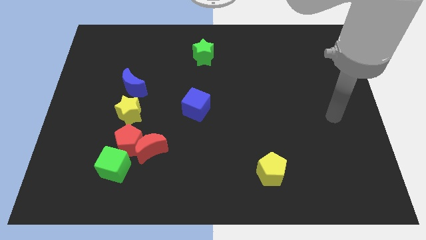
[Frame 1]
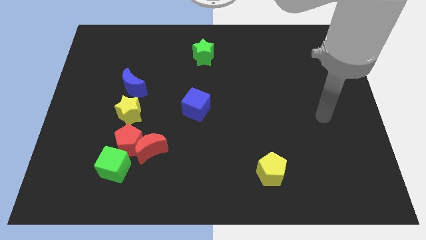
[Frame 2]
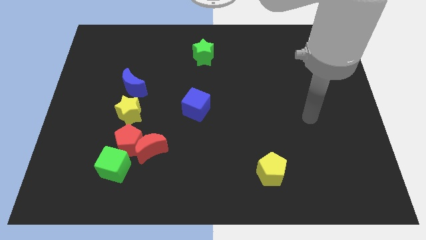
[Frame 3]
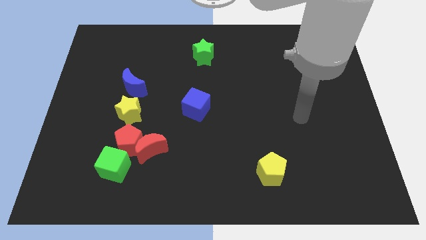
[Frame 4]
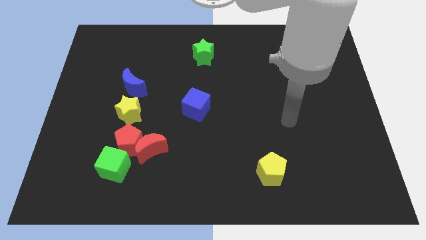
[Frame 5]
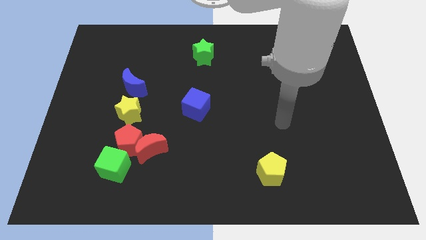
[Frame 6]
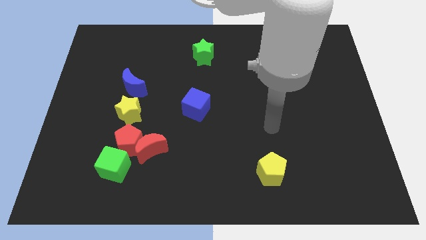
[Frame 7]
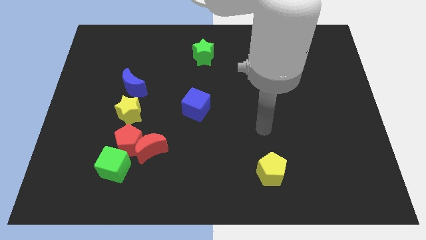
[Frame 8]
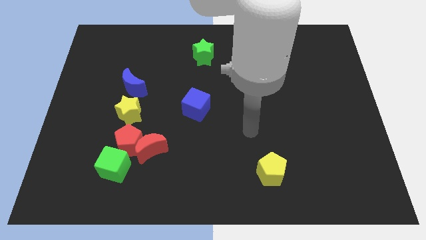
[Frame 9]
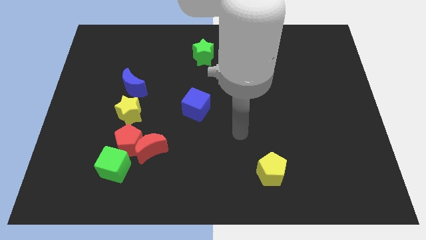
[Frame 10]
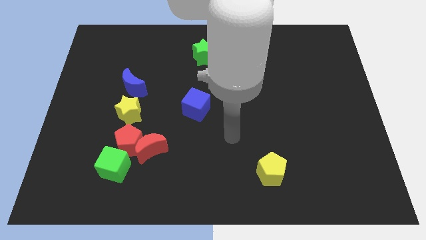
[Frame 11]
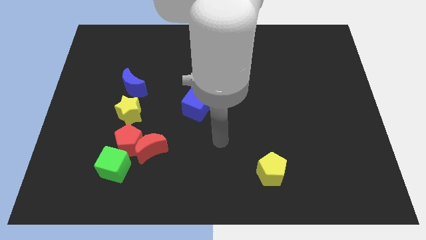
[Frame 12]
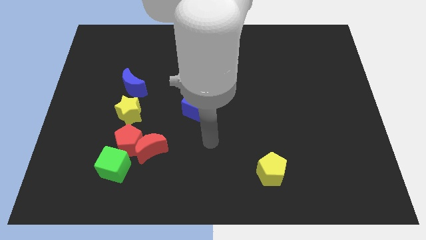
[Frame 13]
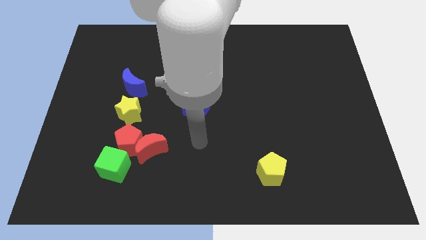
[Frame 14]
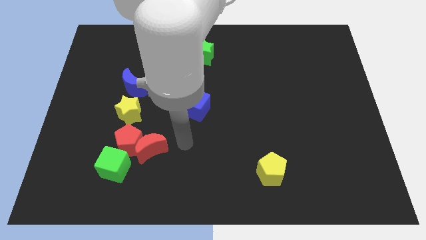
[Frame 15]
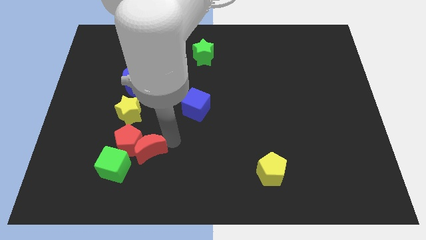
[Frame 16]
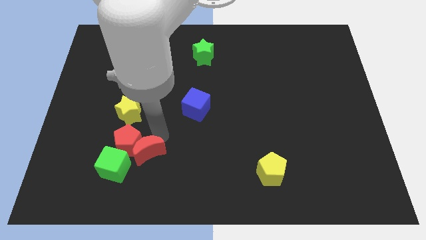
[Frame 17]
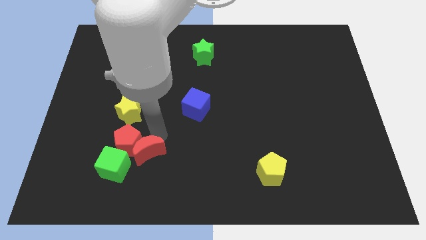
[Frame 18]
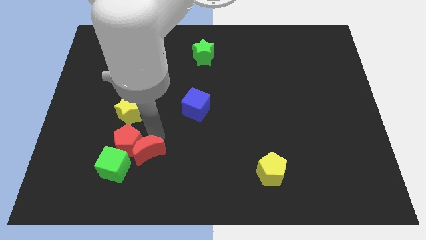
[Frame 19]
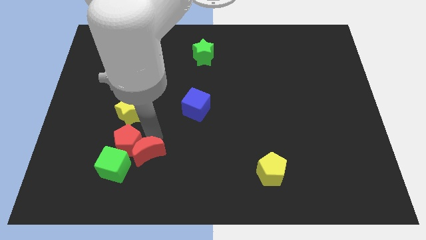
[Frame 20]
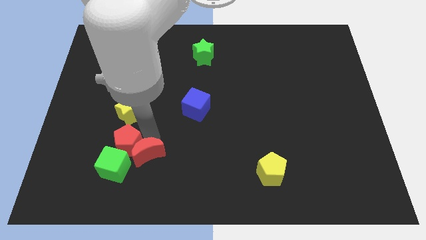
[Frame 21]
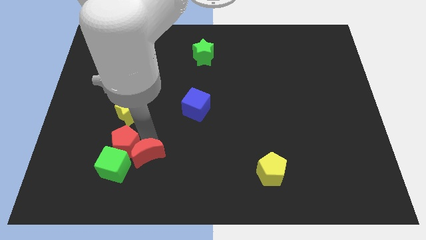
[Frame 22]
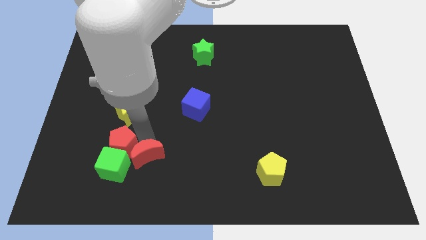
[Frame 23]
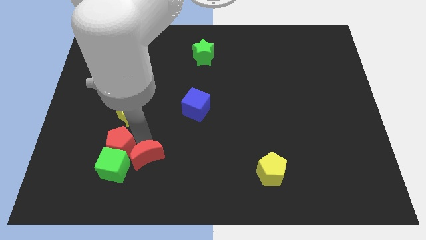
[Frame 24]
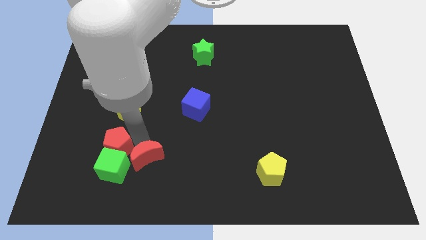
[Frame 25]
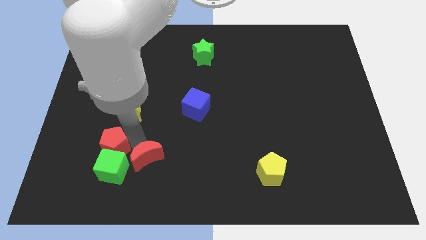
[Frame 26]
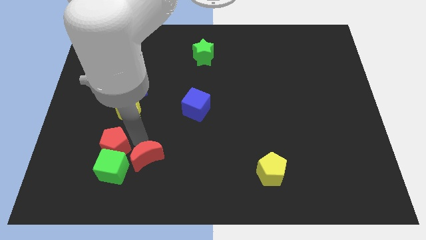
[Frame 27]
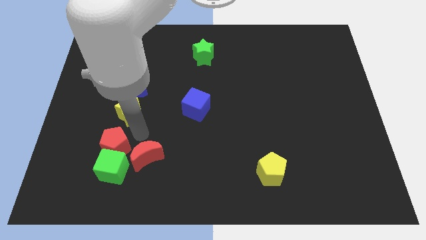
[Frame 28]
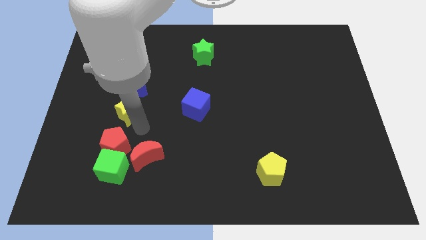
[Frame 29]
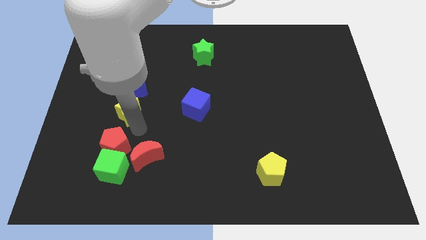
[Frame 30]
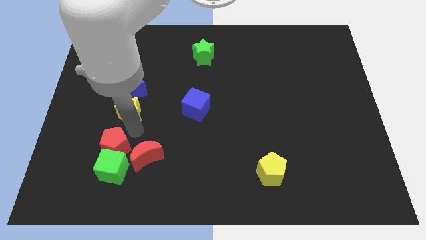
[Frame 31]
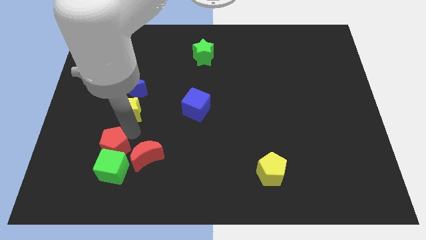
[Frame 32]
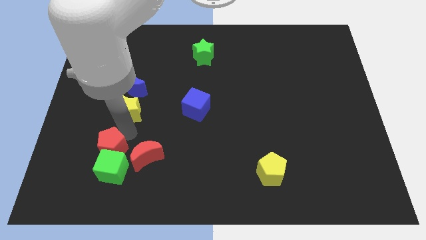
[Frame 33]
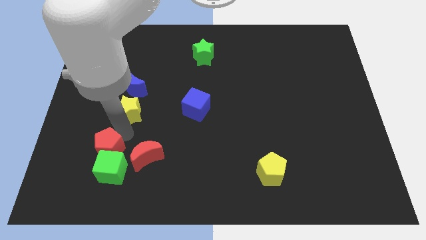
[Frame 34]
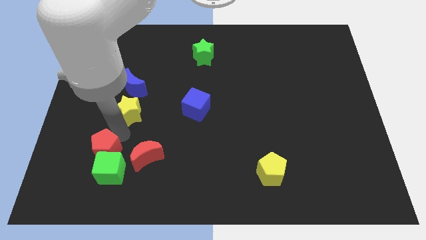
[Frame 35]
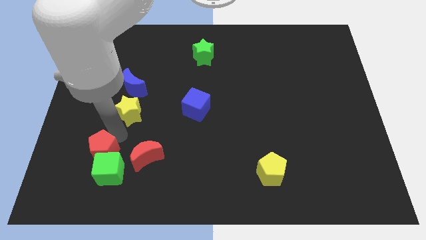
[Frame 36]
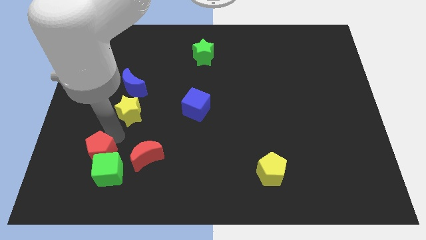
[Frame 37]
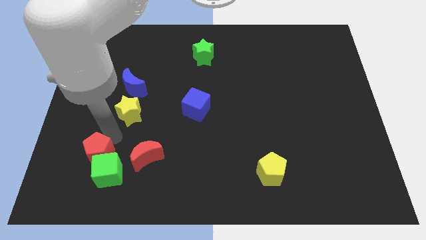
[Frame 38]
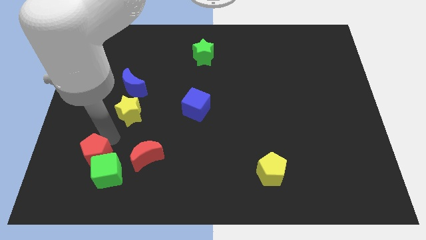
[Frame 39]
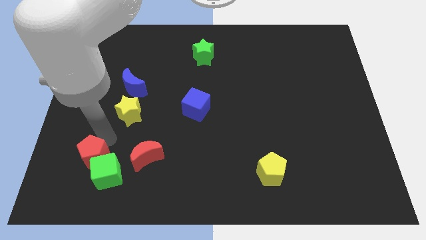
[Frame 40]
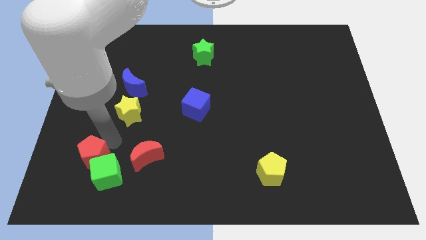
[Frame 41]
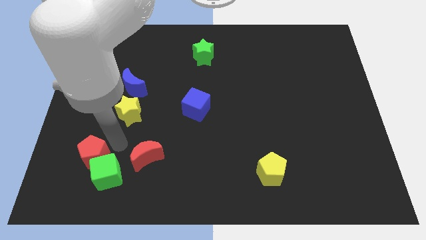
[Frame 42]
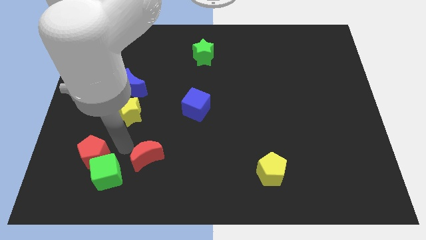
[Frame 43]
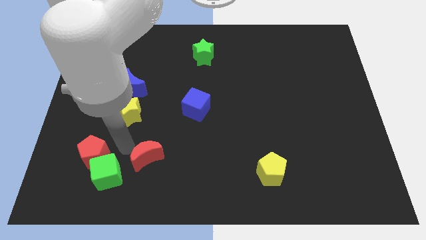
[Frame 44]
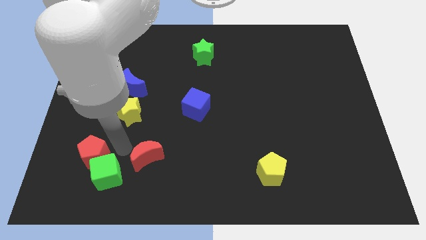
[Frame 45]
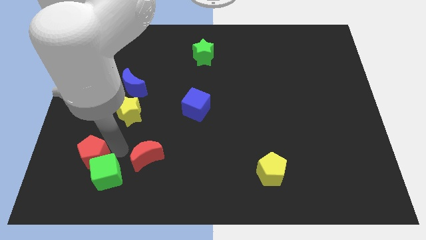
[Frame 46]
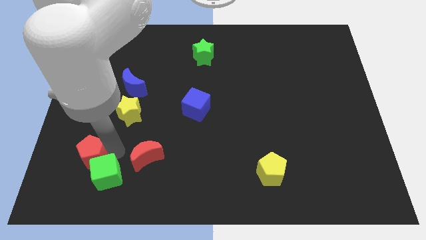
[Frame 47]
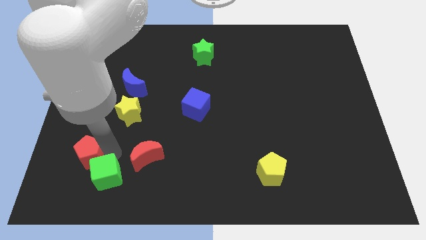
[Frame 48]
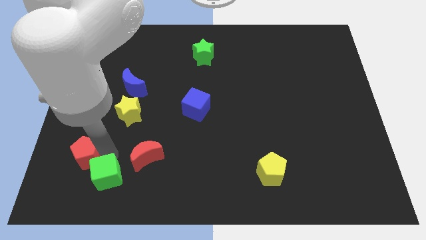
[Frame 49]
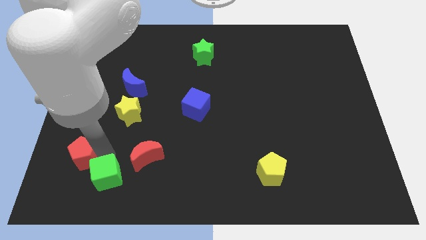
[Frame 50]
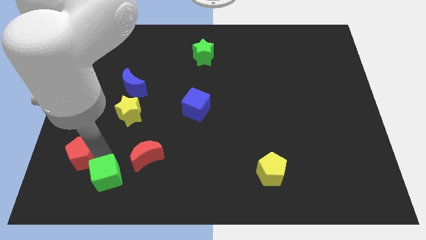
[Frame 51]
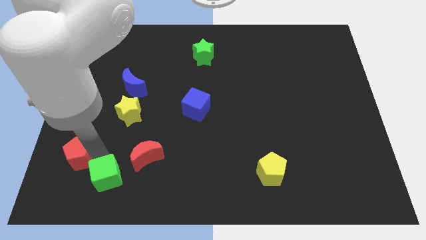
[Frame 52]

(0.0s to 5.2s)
pull the red pentagon apart from the group of blocks

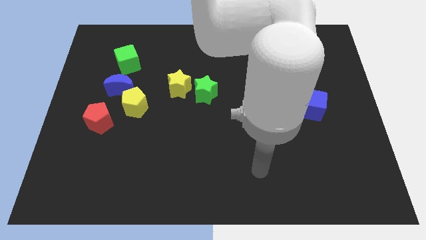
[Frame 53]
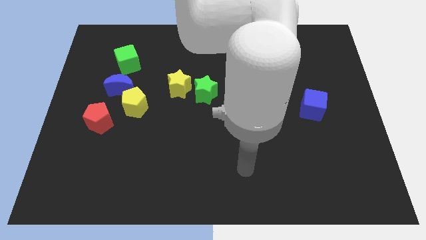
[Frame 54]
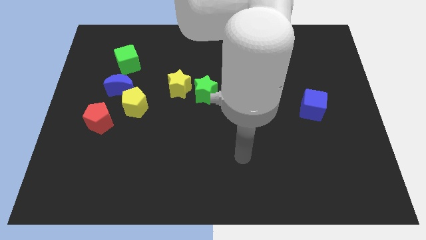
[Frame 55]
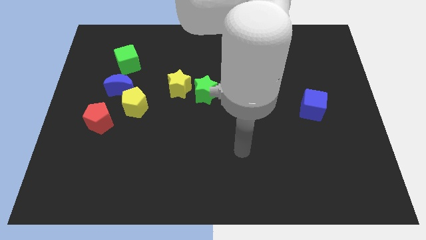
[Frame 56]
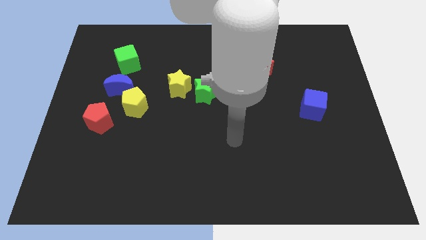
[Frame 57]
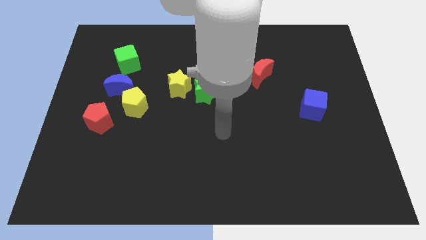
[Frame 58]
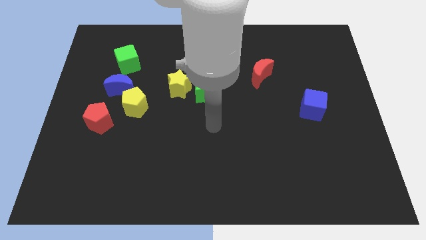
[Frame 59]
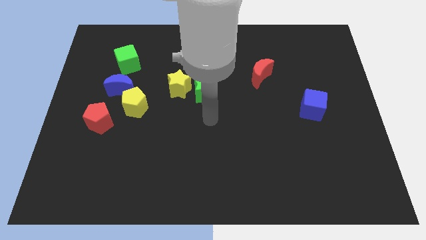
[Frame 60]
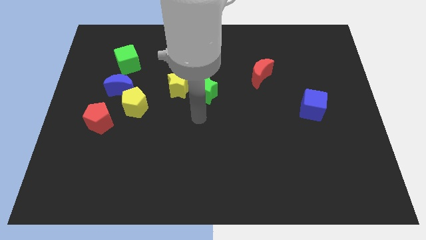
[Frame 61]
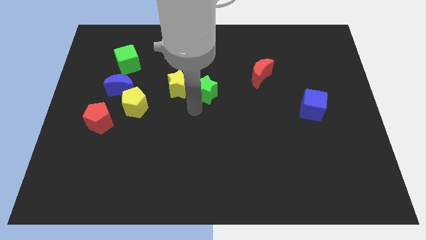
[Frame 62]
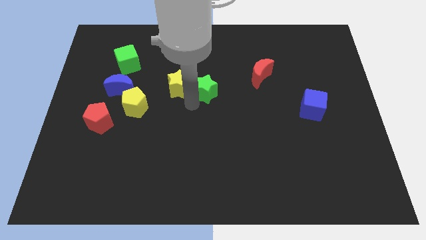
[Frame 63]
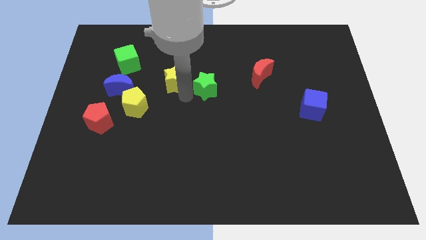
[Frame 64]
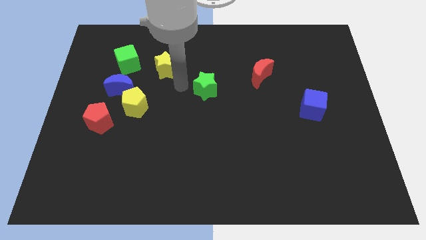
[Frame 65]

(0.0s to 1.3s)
pull the green star apart from the yellow star

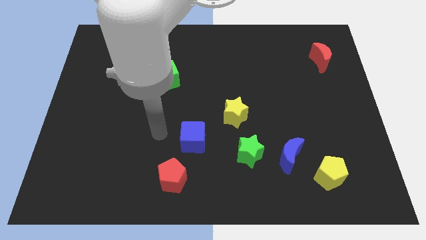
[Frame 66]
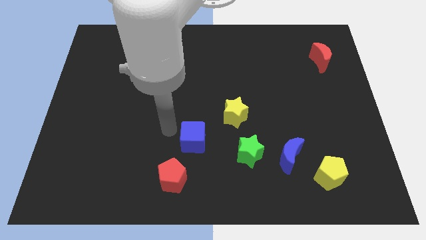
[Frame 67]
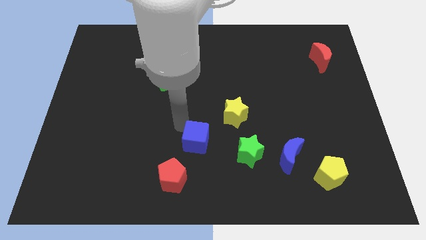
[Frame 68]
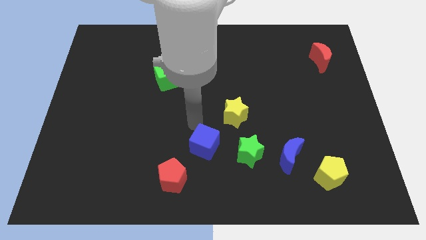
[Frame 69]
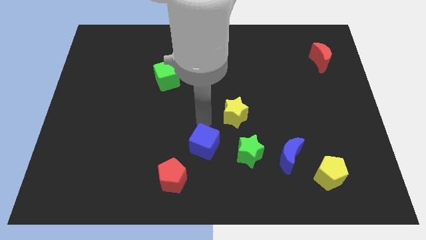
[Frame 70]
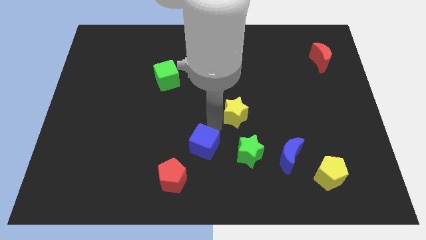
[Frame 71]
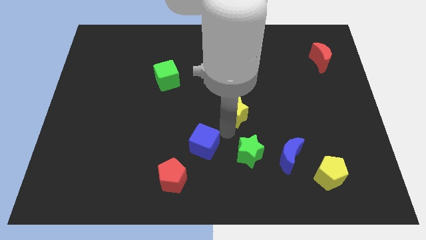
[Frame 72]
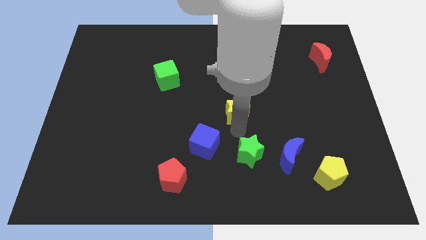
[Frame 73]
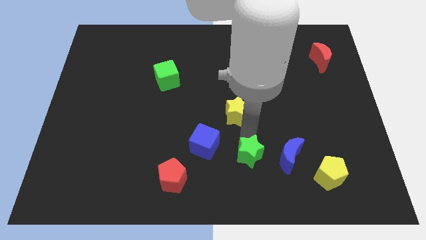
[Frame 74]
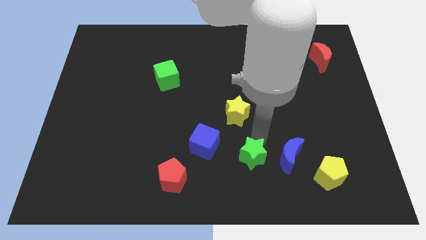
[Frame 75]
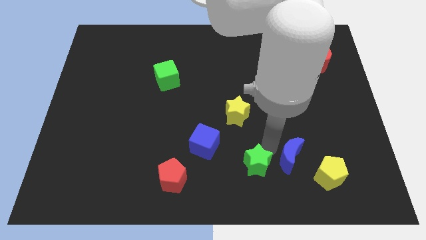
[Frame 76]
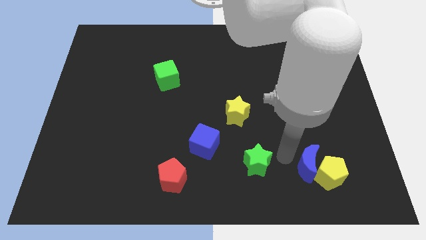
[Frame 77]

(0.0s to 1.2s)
pull the green star apart from the blue moon

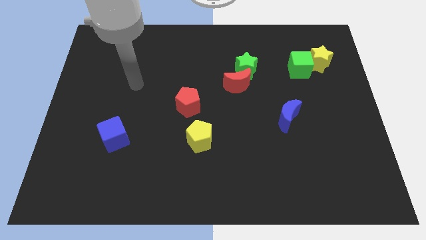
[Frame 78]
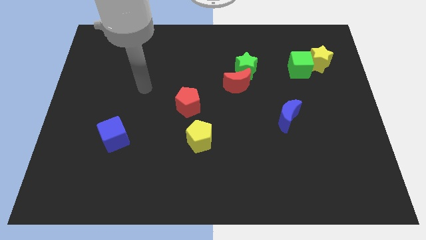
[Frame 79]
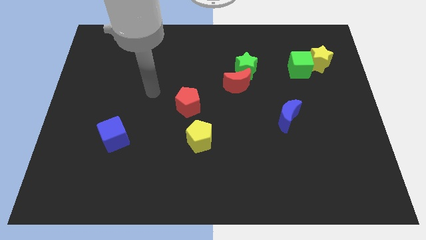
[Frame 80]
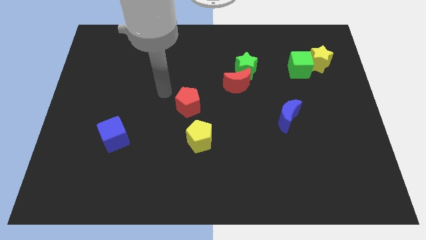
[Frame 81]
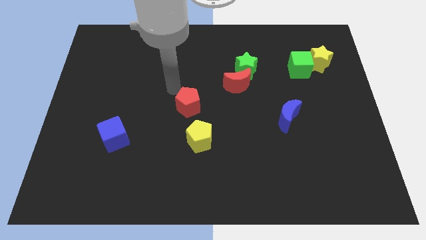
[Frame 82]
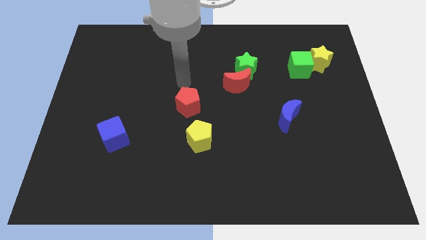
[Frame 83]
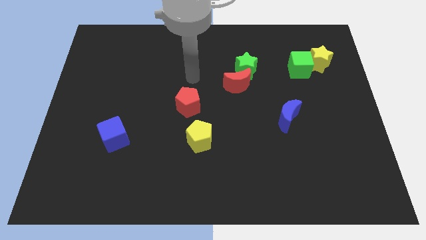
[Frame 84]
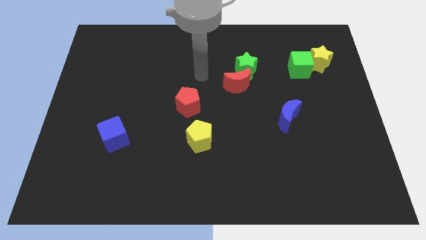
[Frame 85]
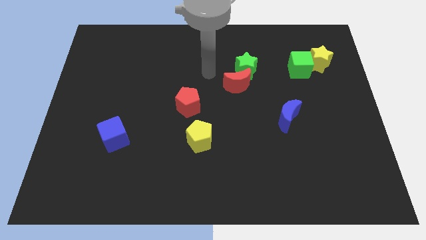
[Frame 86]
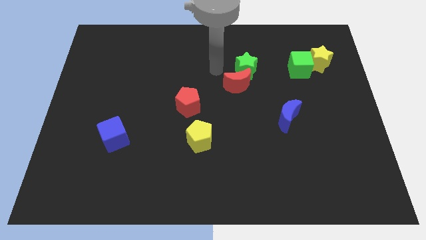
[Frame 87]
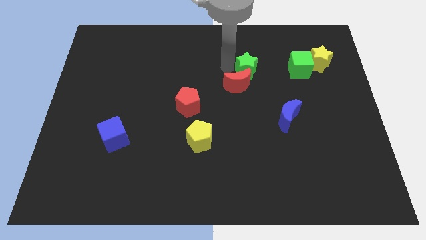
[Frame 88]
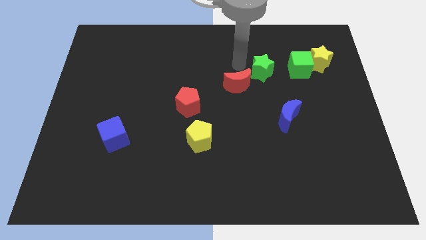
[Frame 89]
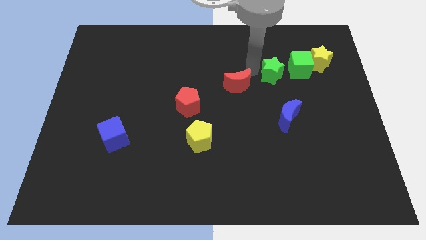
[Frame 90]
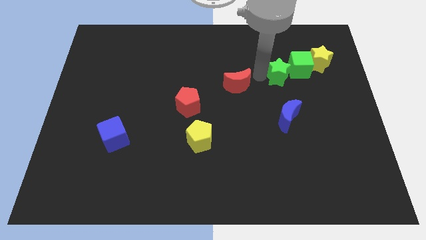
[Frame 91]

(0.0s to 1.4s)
separate the red moon from the green star
